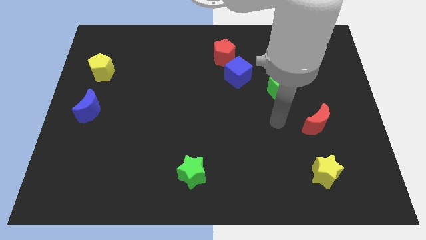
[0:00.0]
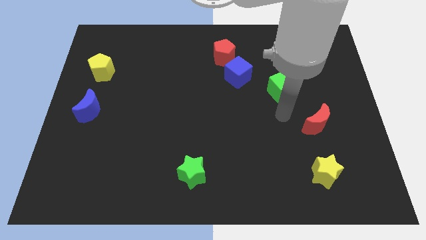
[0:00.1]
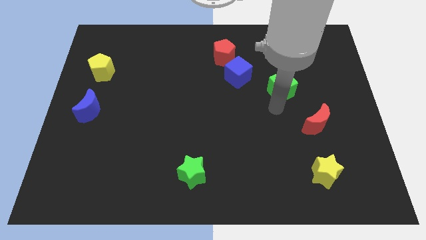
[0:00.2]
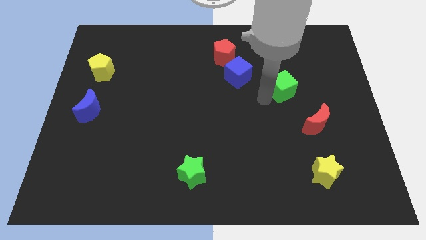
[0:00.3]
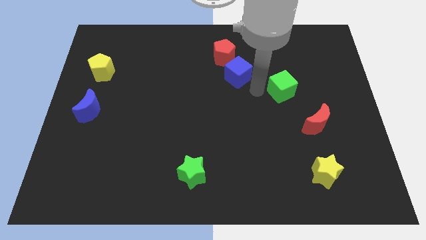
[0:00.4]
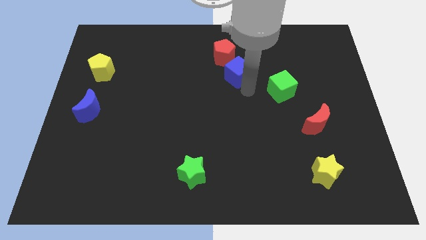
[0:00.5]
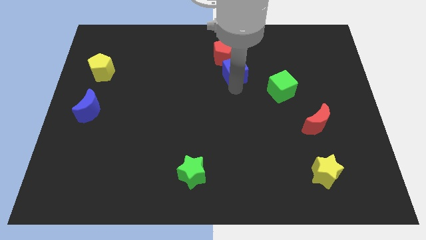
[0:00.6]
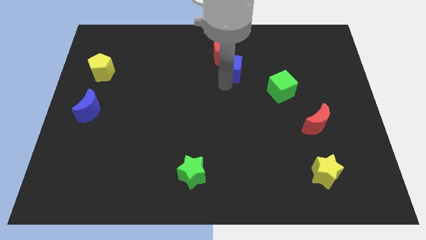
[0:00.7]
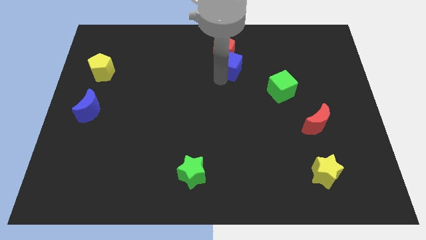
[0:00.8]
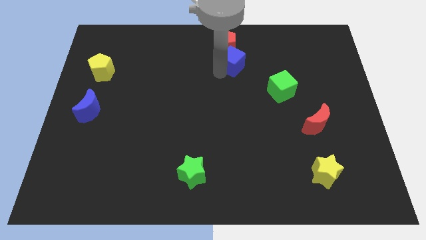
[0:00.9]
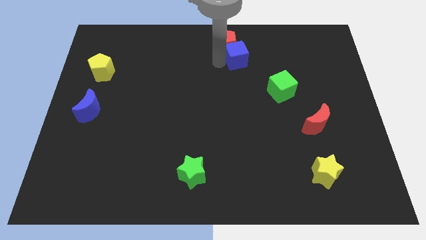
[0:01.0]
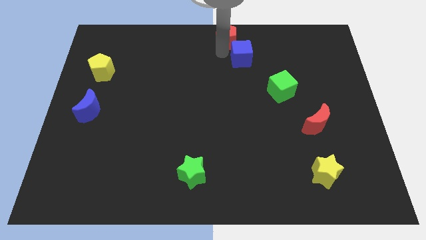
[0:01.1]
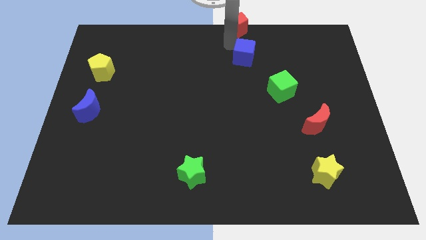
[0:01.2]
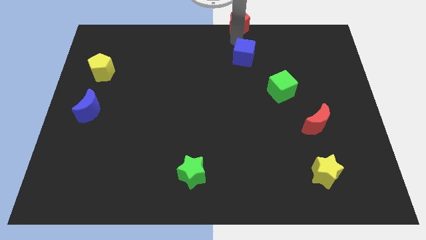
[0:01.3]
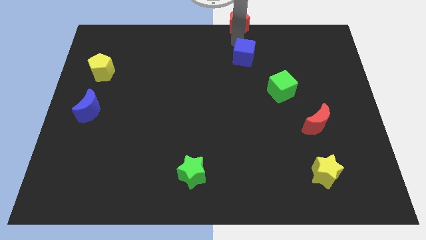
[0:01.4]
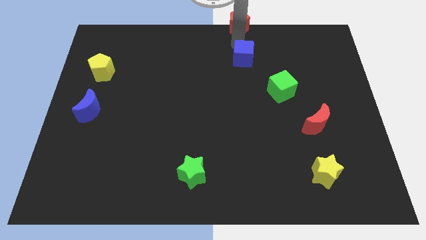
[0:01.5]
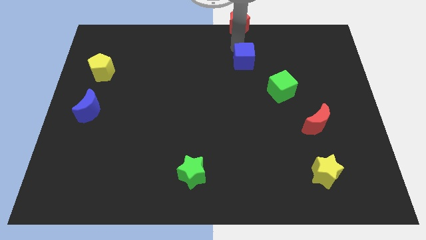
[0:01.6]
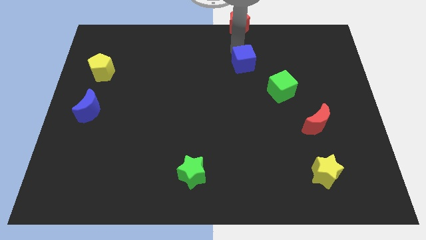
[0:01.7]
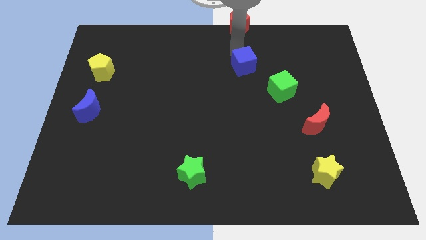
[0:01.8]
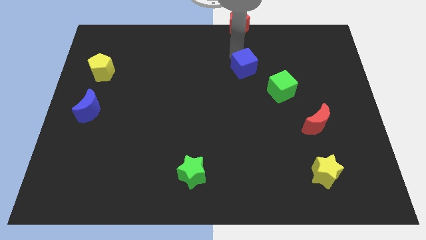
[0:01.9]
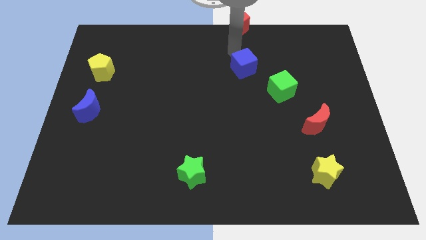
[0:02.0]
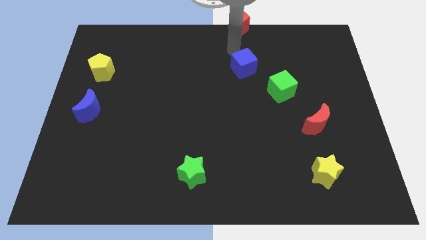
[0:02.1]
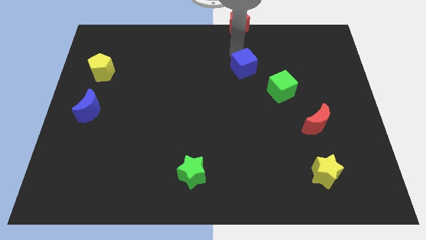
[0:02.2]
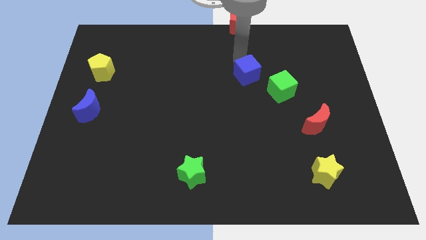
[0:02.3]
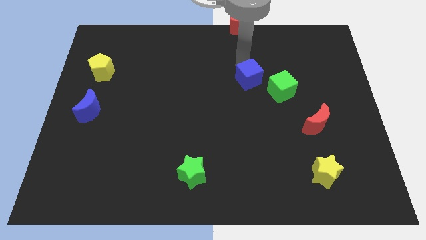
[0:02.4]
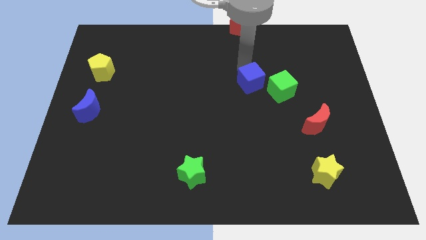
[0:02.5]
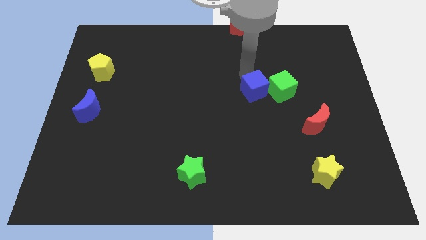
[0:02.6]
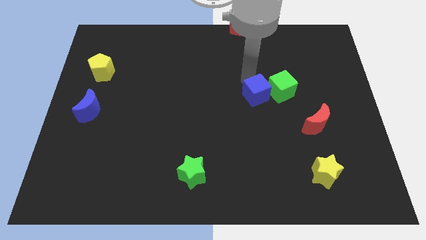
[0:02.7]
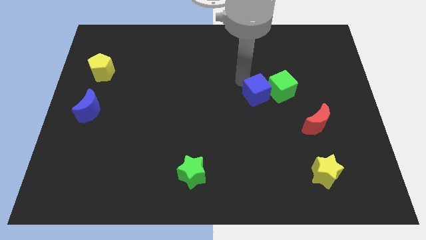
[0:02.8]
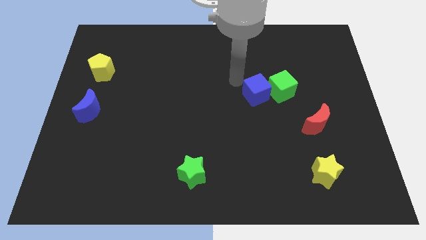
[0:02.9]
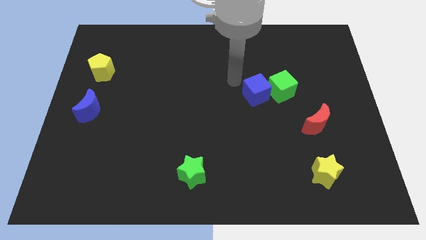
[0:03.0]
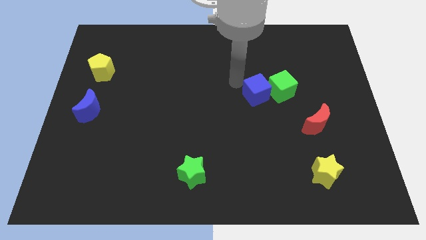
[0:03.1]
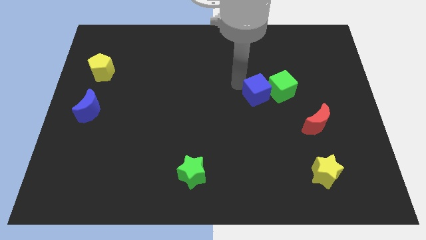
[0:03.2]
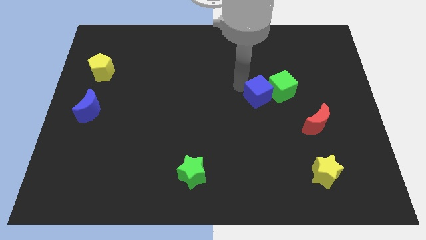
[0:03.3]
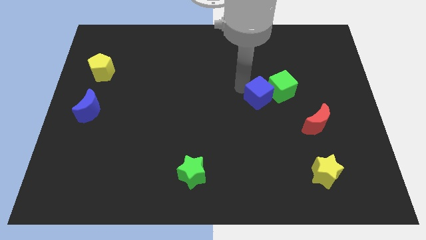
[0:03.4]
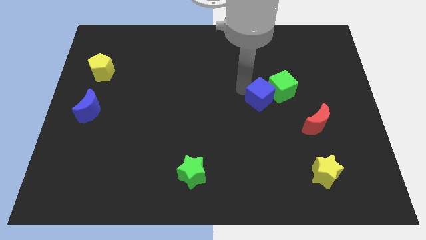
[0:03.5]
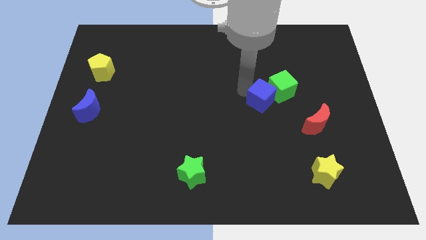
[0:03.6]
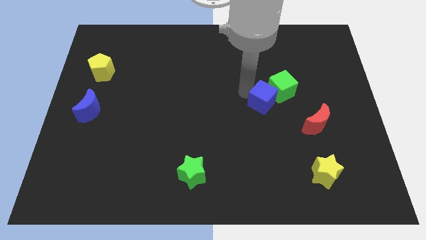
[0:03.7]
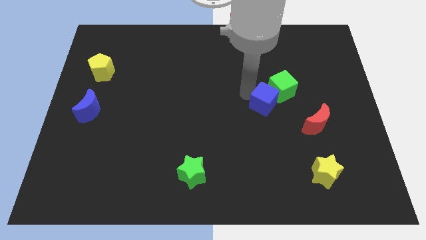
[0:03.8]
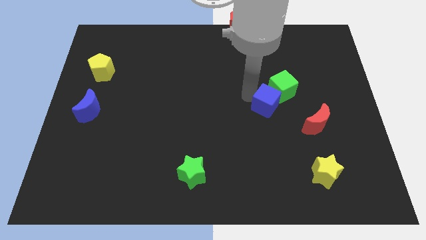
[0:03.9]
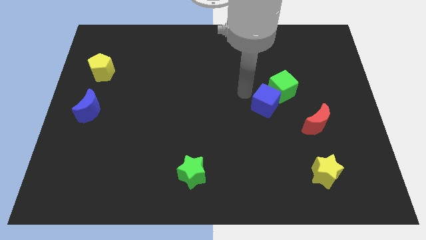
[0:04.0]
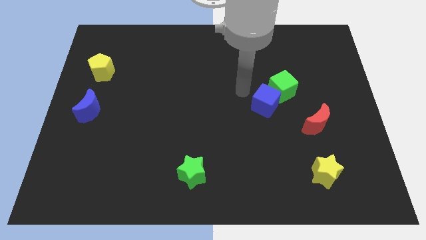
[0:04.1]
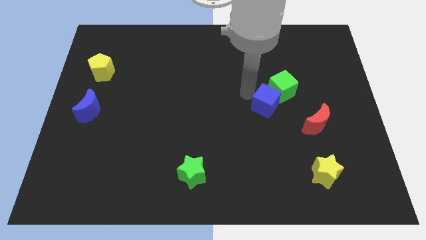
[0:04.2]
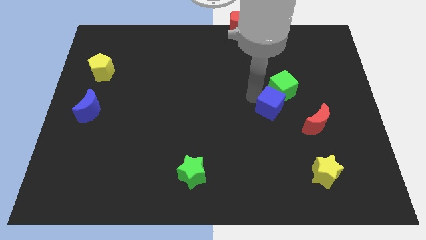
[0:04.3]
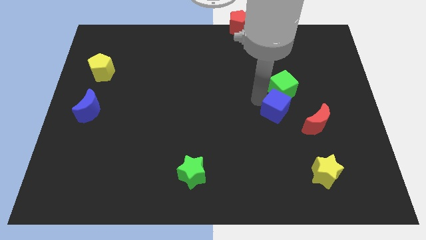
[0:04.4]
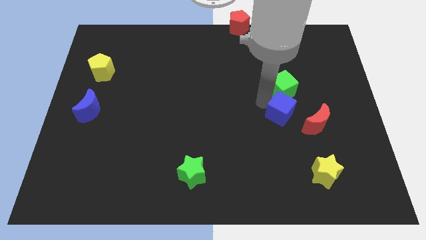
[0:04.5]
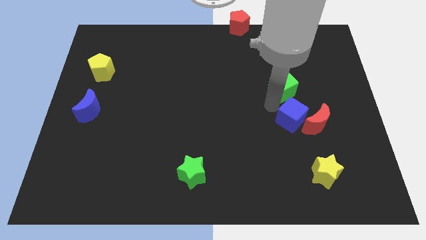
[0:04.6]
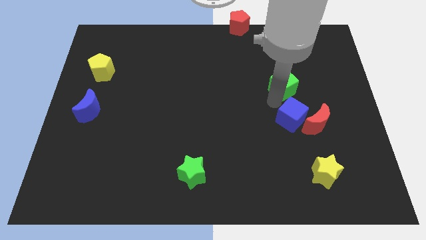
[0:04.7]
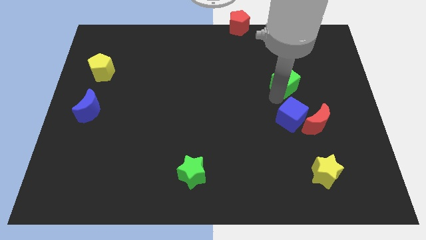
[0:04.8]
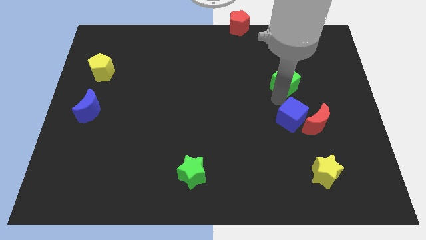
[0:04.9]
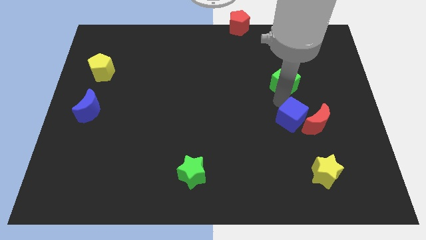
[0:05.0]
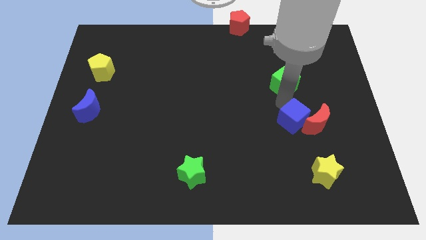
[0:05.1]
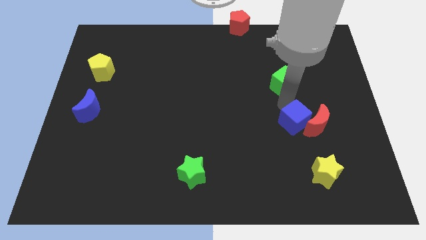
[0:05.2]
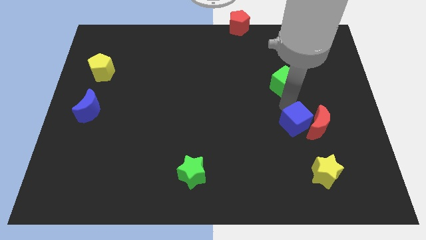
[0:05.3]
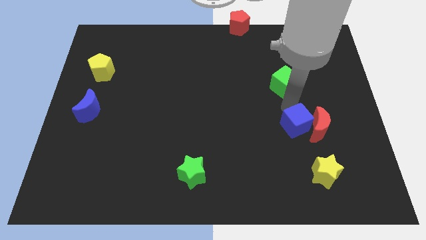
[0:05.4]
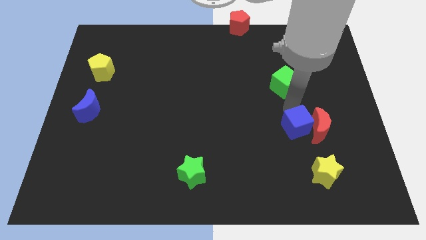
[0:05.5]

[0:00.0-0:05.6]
push the blue cube downwards and to the right diagonally

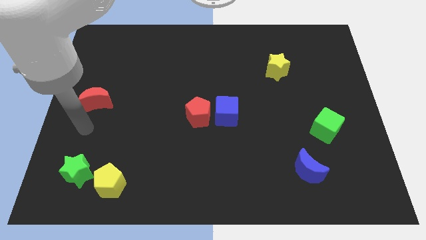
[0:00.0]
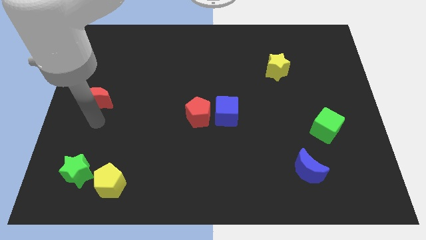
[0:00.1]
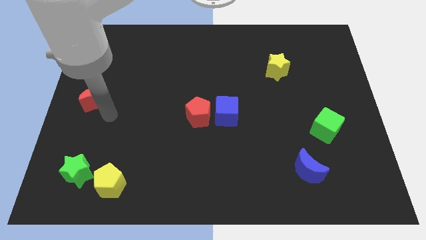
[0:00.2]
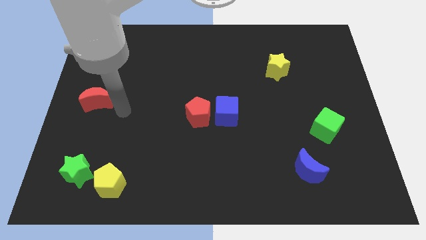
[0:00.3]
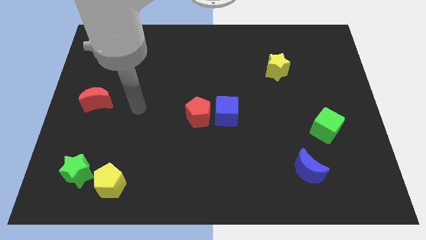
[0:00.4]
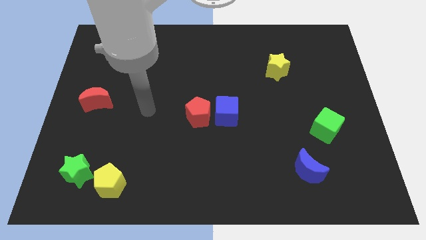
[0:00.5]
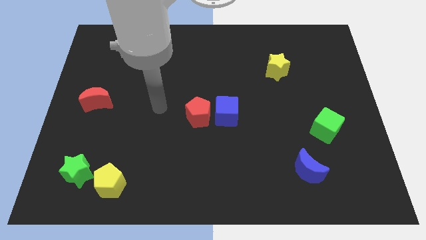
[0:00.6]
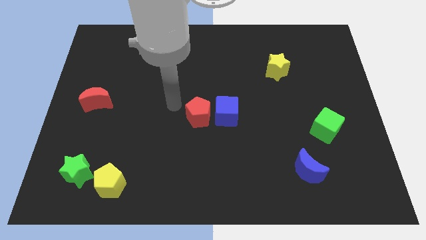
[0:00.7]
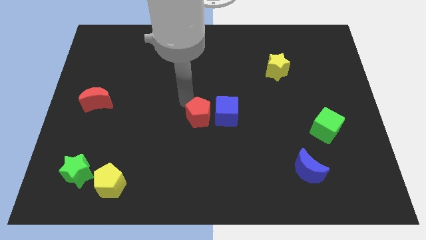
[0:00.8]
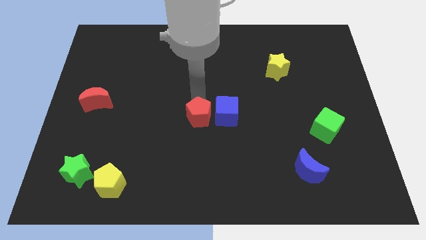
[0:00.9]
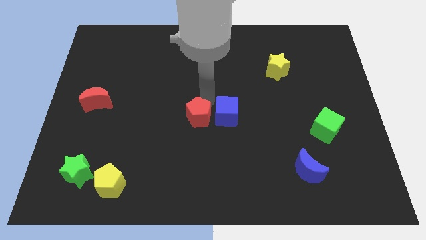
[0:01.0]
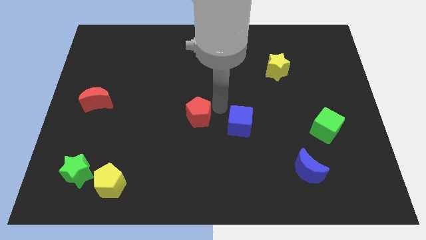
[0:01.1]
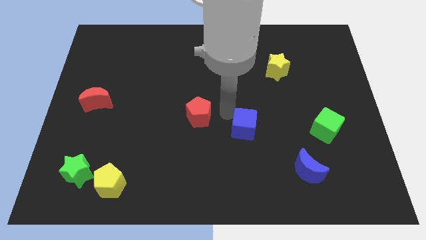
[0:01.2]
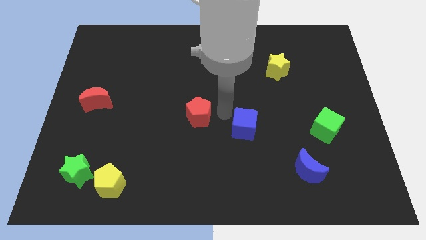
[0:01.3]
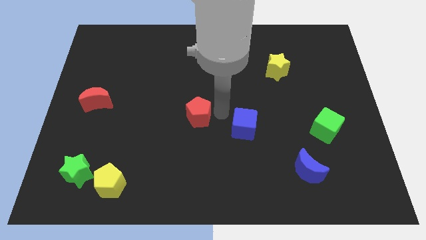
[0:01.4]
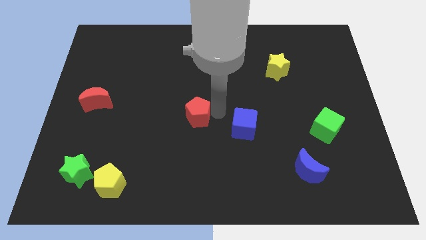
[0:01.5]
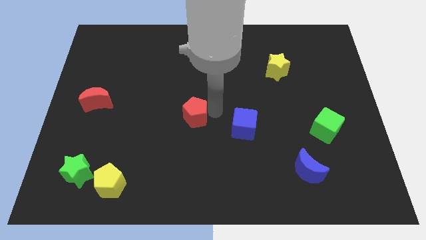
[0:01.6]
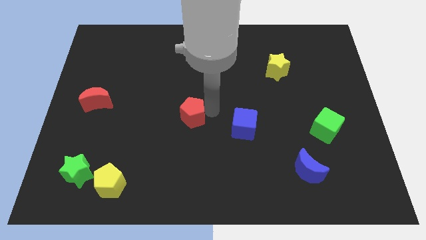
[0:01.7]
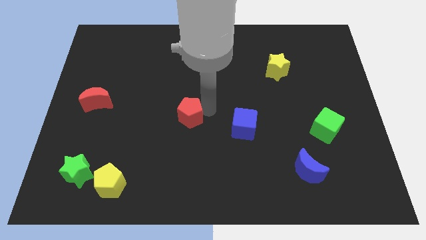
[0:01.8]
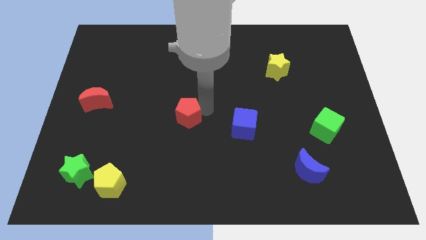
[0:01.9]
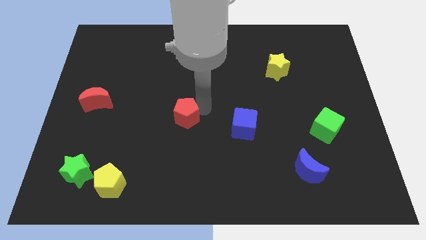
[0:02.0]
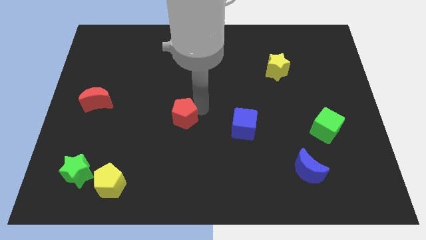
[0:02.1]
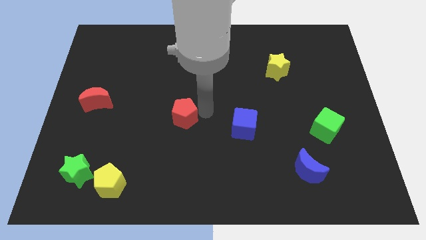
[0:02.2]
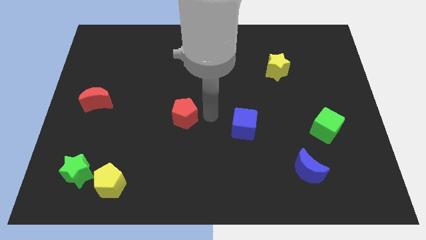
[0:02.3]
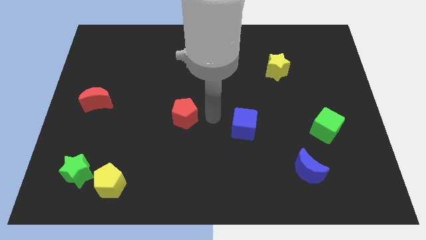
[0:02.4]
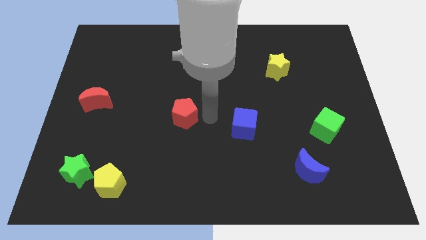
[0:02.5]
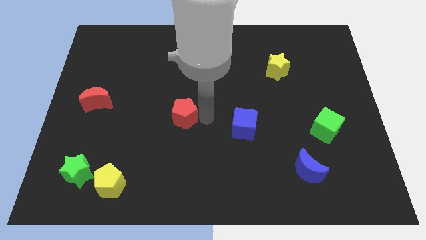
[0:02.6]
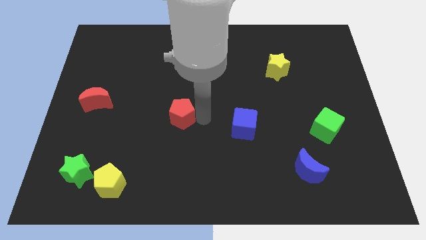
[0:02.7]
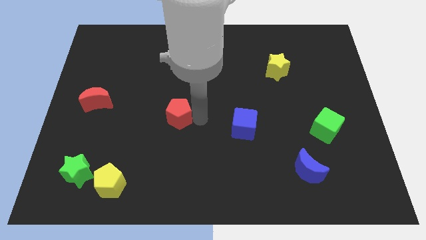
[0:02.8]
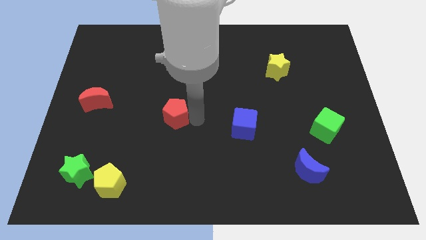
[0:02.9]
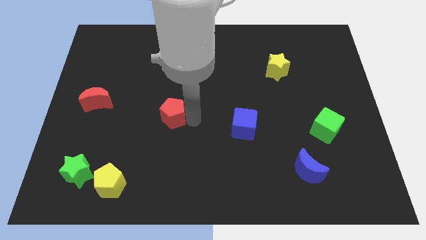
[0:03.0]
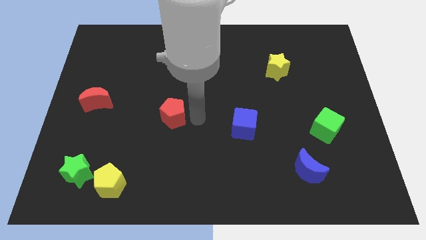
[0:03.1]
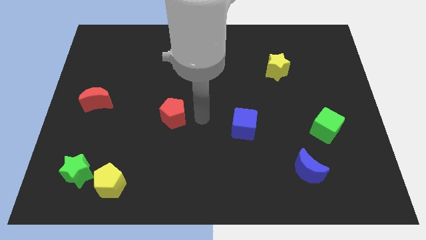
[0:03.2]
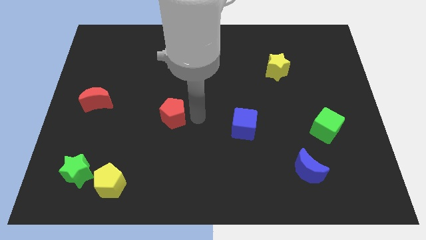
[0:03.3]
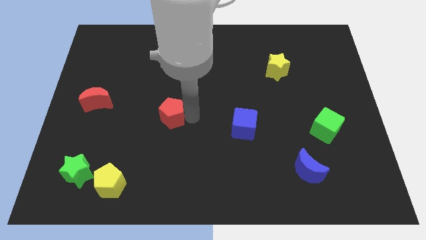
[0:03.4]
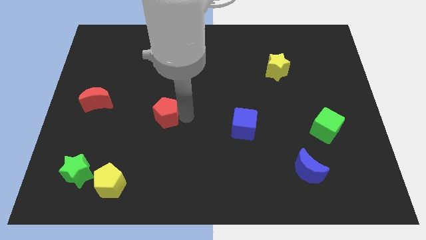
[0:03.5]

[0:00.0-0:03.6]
push the red pentagon somewhat left
